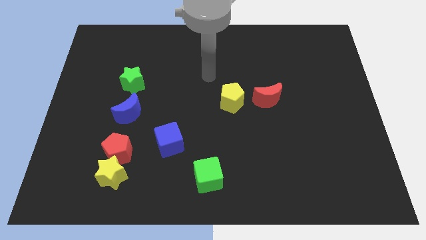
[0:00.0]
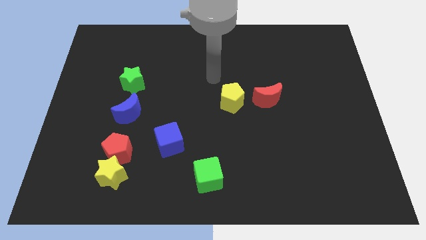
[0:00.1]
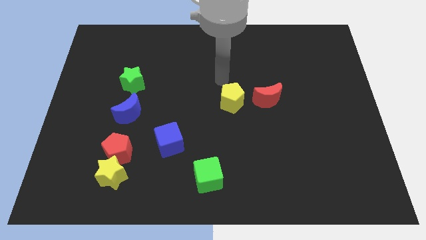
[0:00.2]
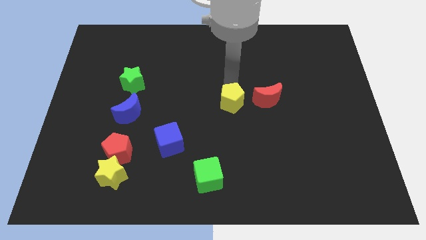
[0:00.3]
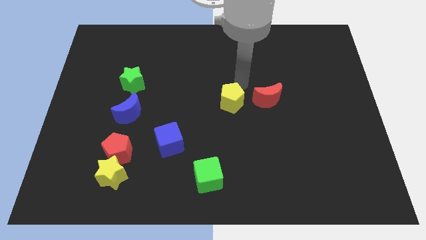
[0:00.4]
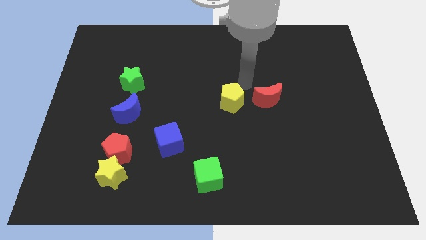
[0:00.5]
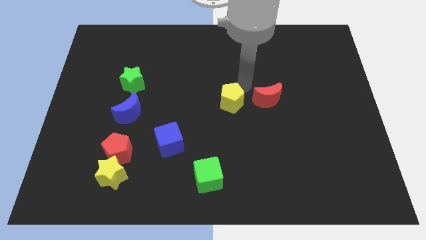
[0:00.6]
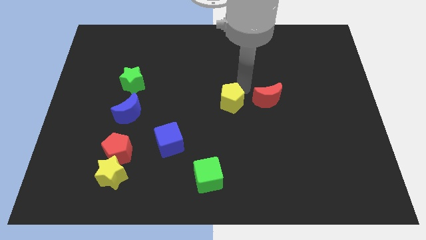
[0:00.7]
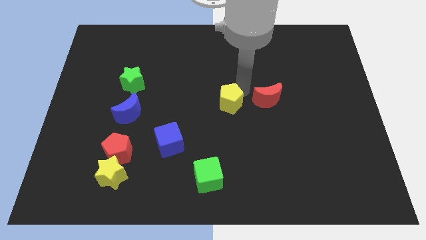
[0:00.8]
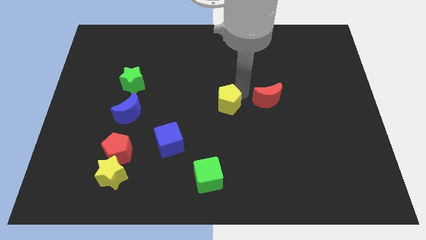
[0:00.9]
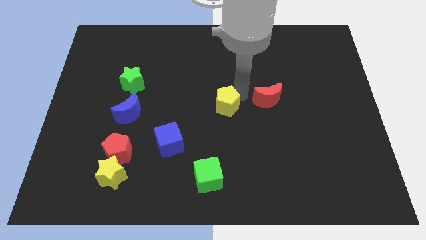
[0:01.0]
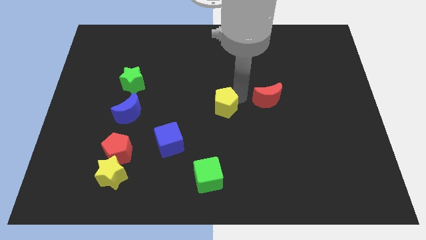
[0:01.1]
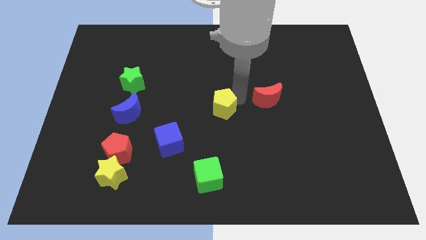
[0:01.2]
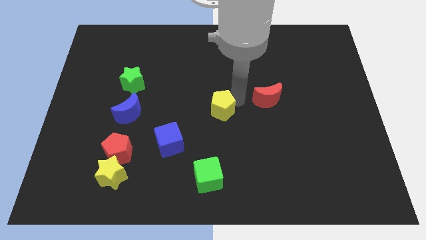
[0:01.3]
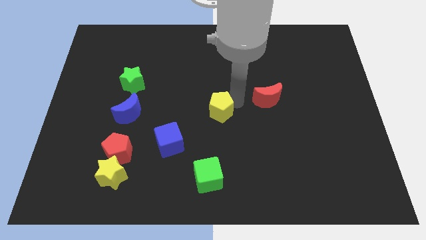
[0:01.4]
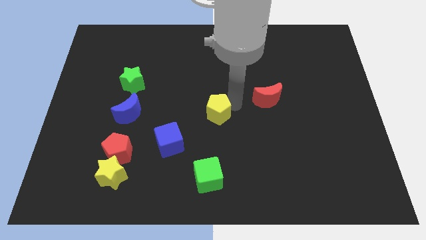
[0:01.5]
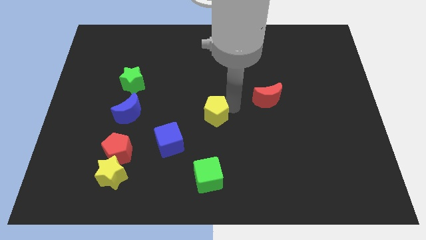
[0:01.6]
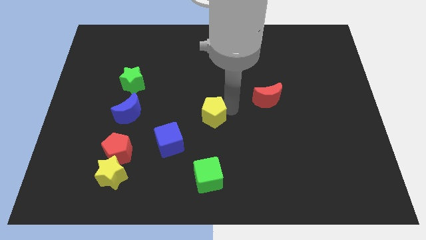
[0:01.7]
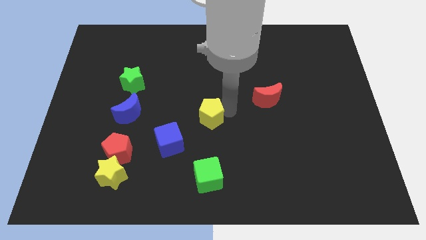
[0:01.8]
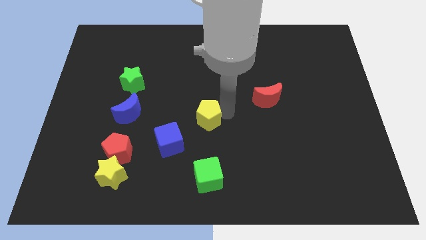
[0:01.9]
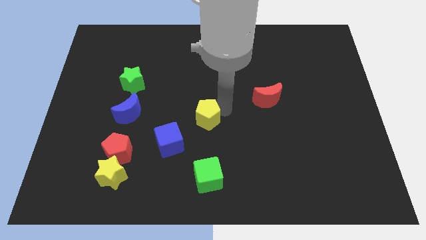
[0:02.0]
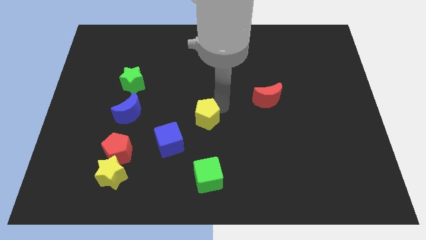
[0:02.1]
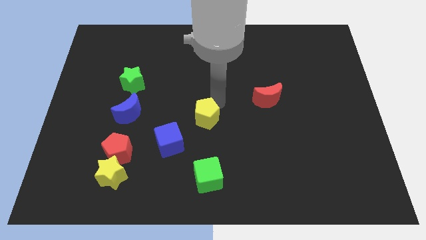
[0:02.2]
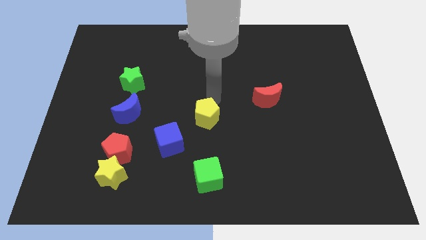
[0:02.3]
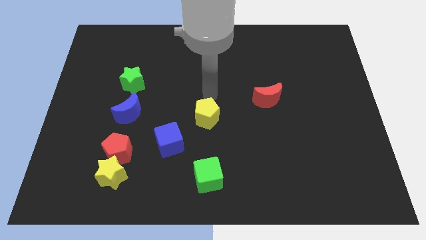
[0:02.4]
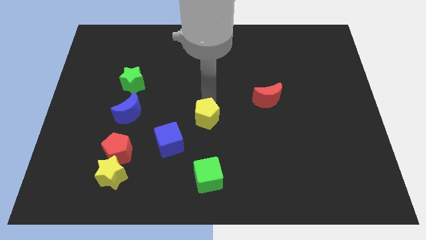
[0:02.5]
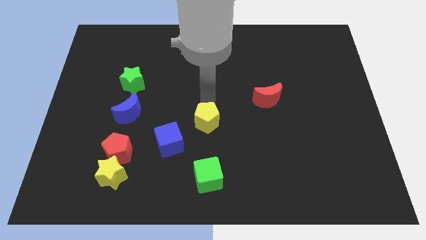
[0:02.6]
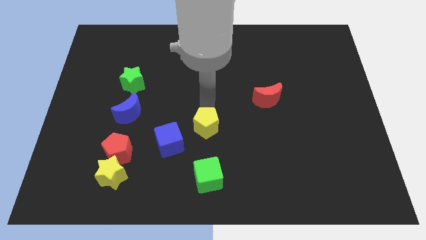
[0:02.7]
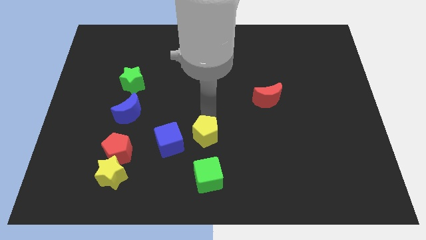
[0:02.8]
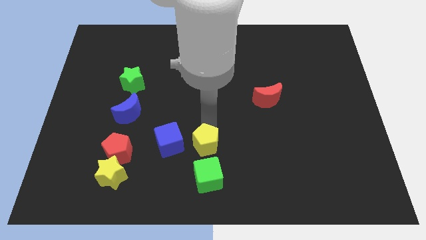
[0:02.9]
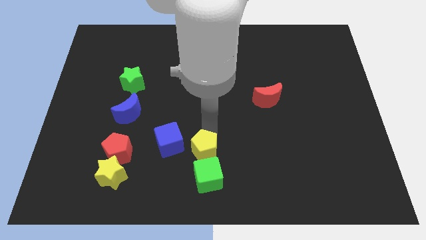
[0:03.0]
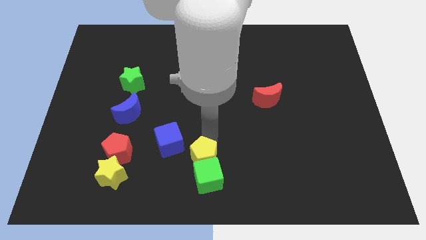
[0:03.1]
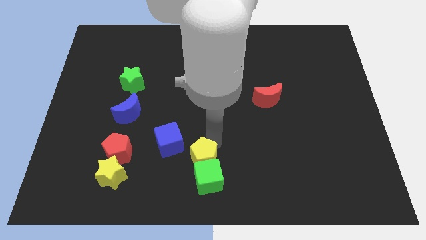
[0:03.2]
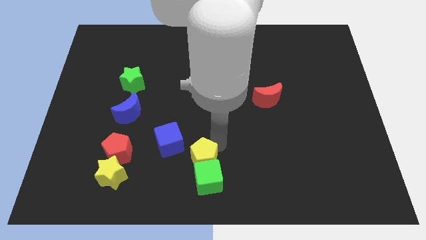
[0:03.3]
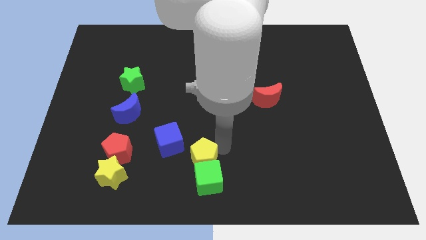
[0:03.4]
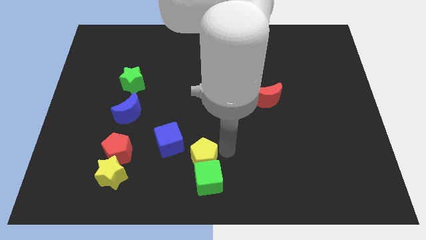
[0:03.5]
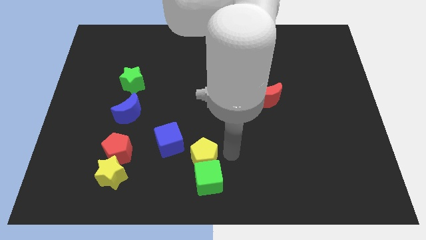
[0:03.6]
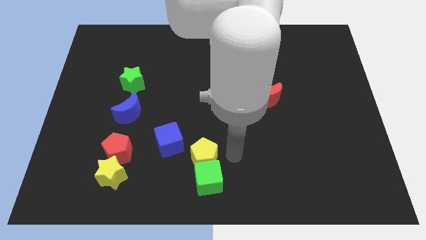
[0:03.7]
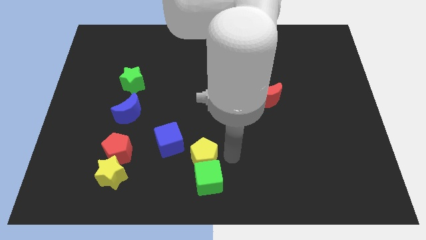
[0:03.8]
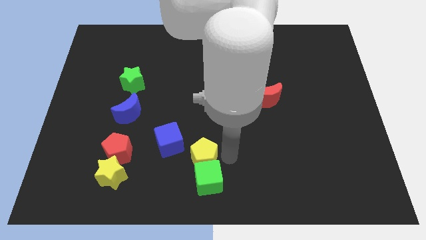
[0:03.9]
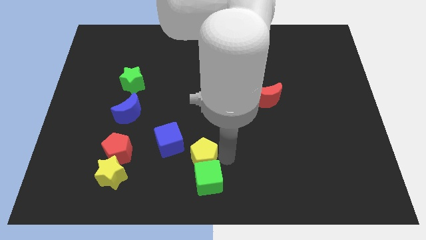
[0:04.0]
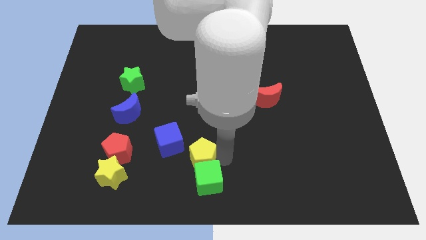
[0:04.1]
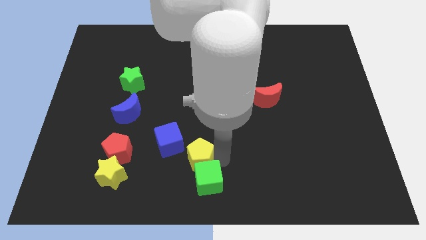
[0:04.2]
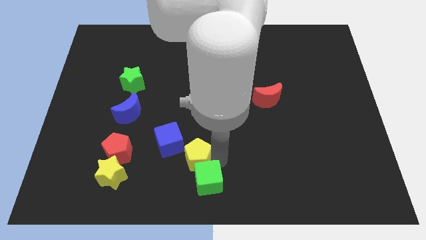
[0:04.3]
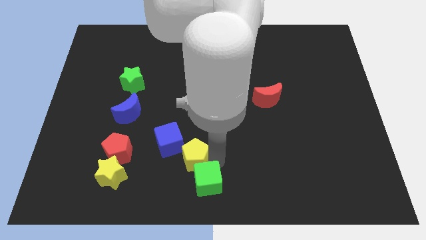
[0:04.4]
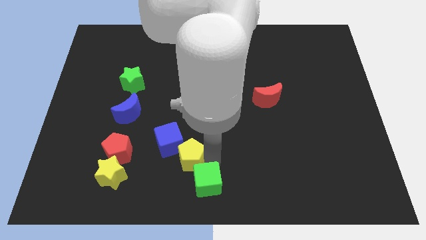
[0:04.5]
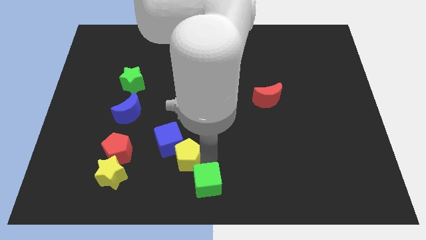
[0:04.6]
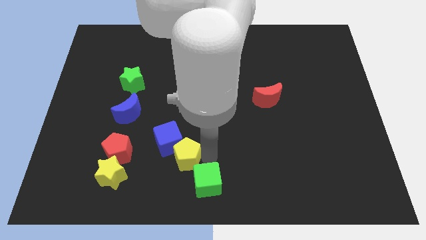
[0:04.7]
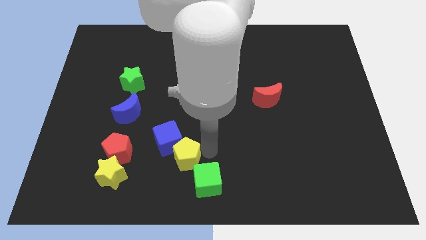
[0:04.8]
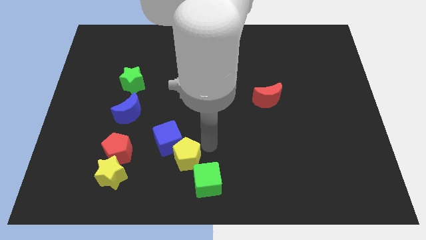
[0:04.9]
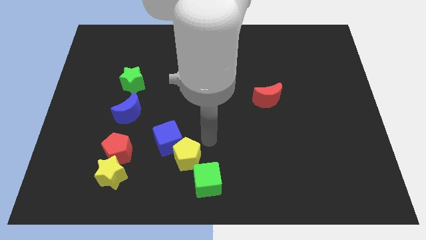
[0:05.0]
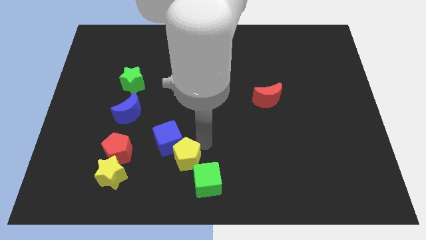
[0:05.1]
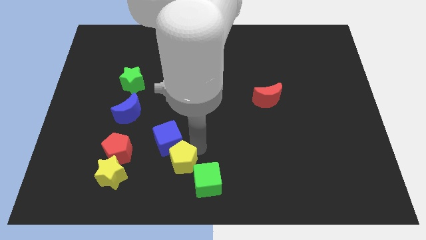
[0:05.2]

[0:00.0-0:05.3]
slide the yellow pentagon right of the yellow star

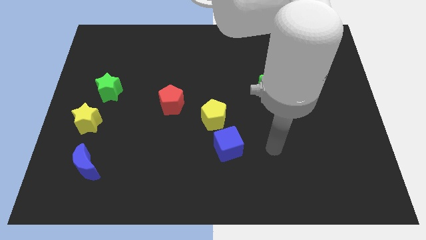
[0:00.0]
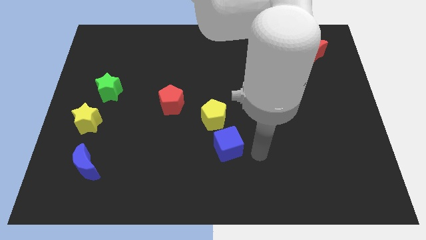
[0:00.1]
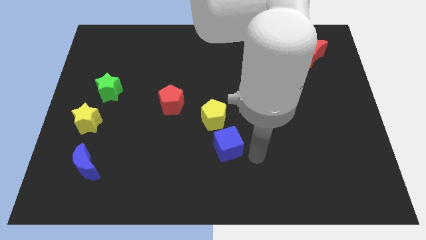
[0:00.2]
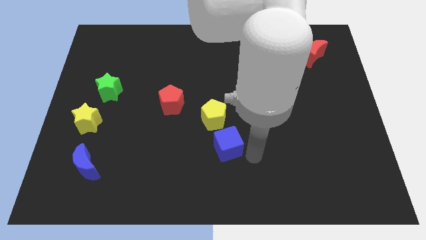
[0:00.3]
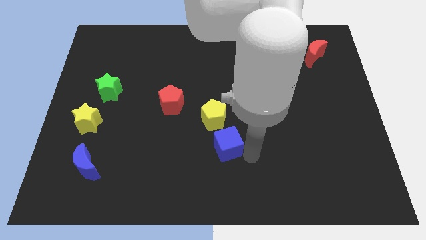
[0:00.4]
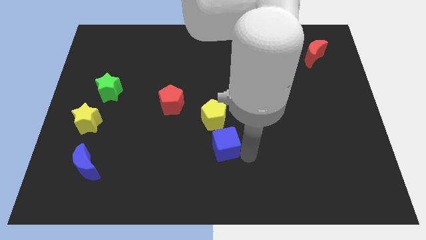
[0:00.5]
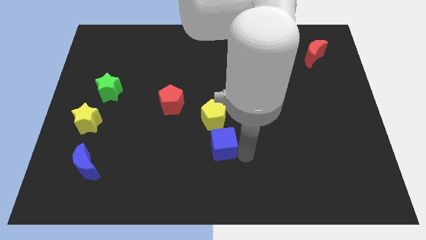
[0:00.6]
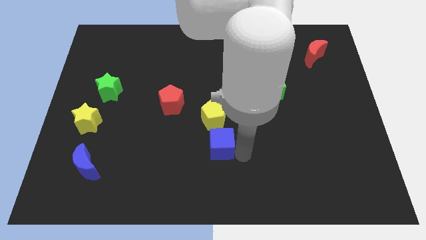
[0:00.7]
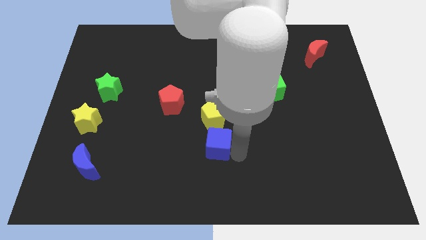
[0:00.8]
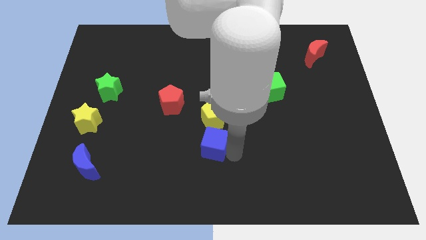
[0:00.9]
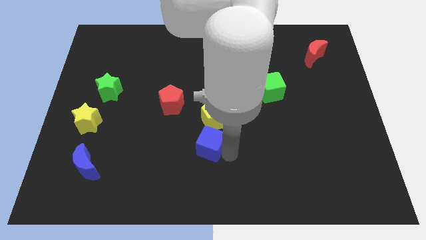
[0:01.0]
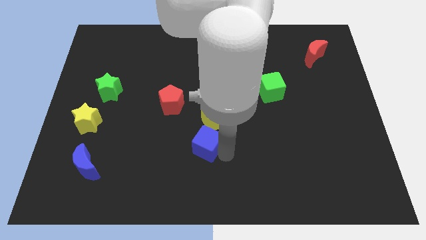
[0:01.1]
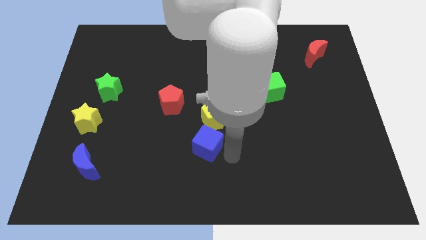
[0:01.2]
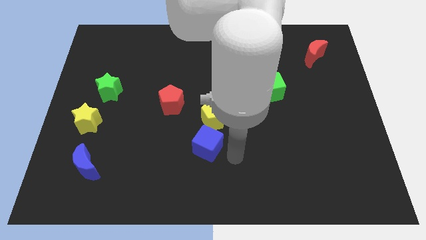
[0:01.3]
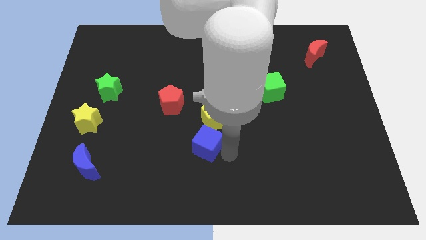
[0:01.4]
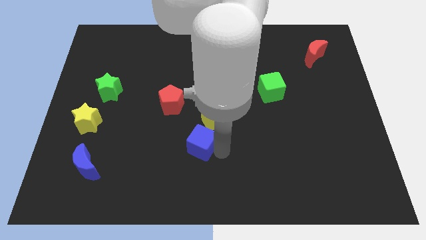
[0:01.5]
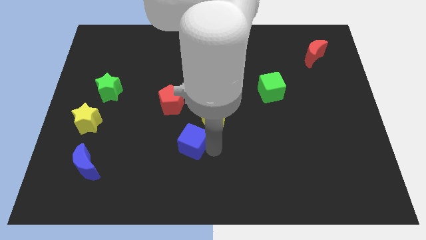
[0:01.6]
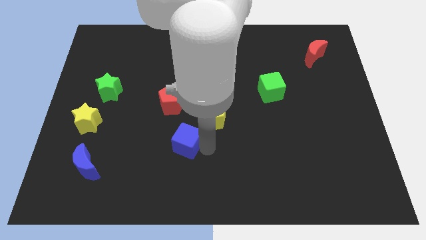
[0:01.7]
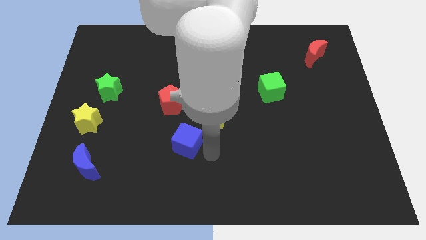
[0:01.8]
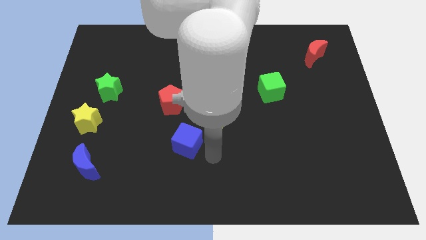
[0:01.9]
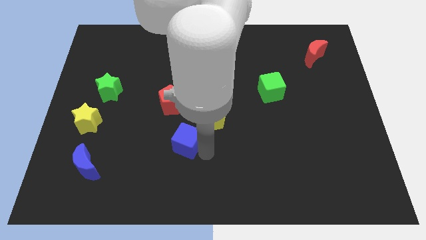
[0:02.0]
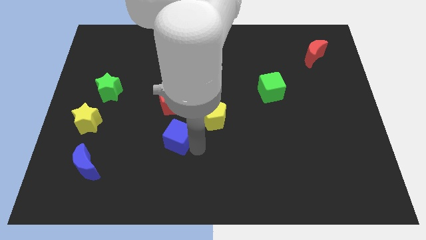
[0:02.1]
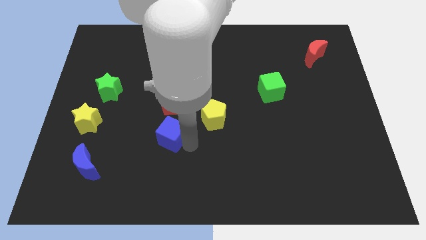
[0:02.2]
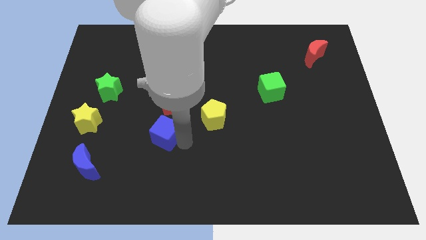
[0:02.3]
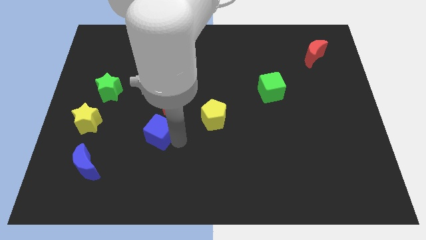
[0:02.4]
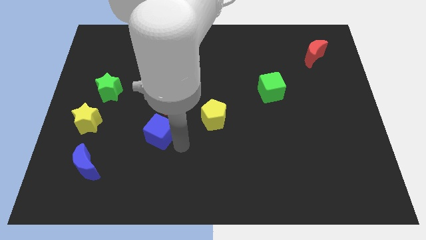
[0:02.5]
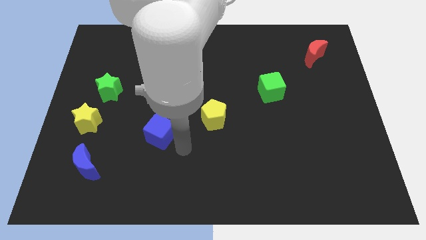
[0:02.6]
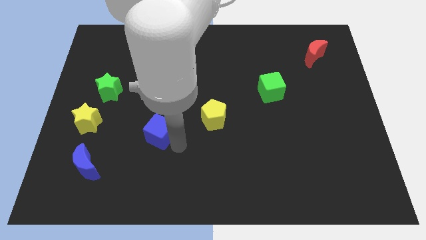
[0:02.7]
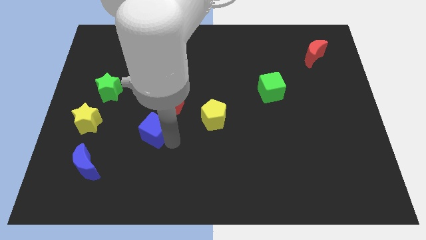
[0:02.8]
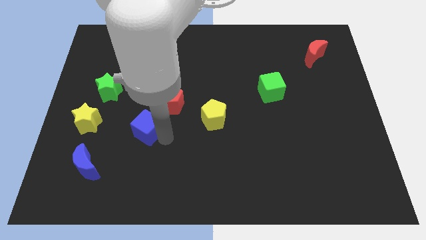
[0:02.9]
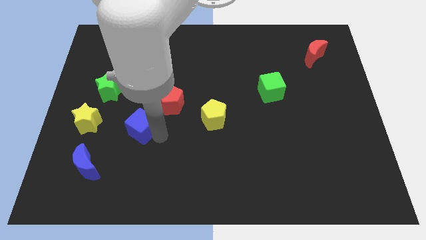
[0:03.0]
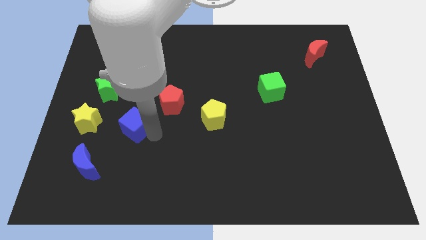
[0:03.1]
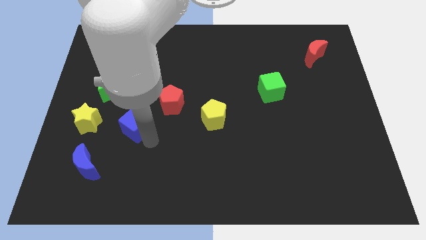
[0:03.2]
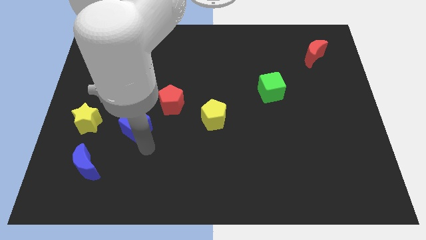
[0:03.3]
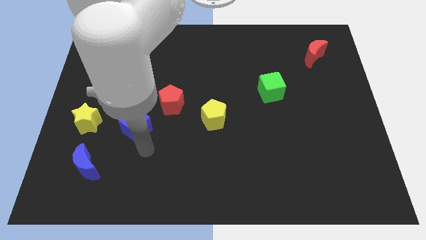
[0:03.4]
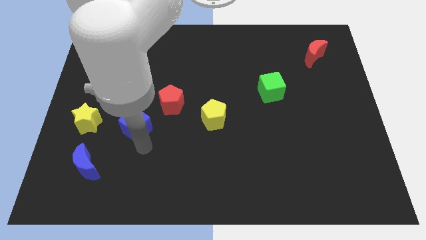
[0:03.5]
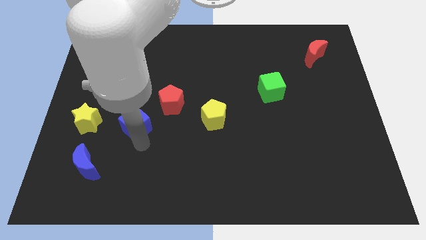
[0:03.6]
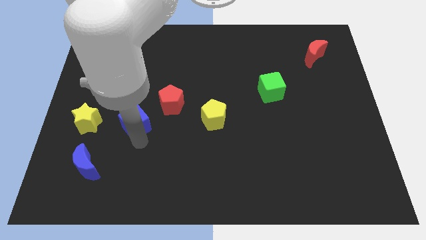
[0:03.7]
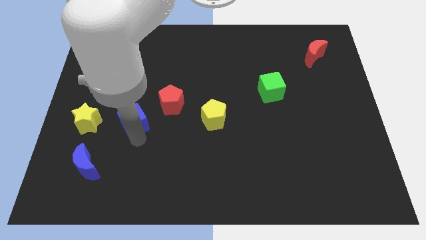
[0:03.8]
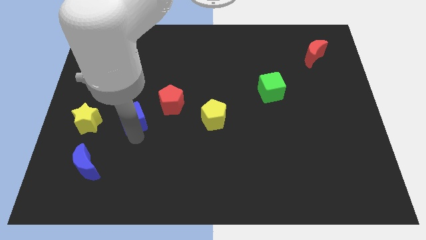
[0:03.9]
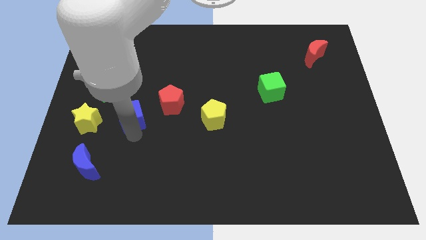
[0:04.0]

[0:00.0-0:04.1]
push the blue cube to the left of the red pentagon
